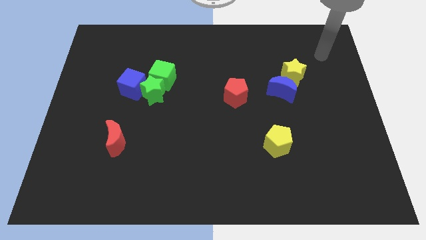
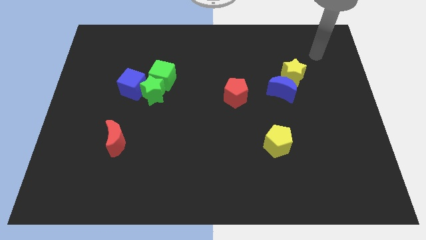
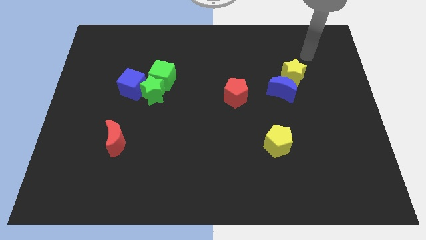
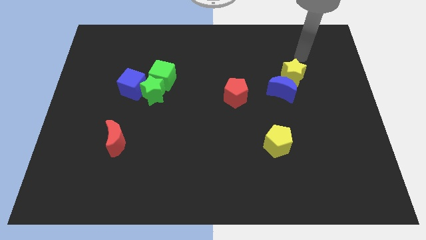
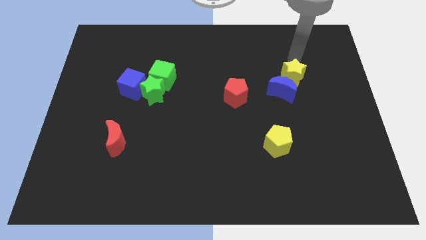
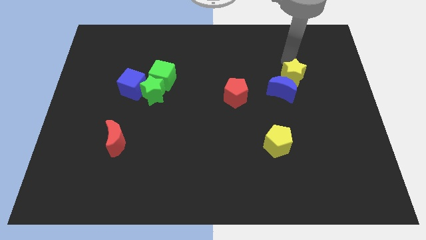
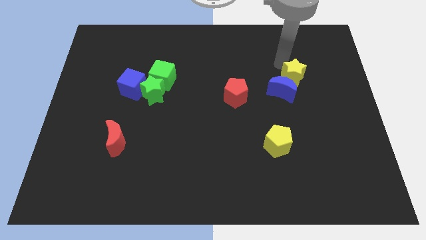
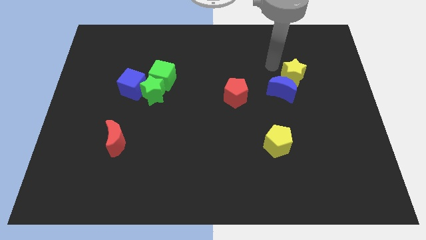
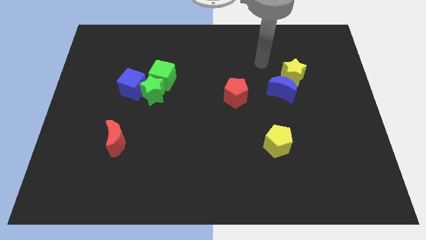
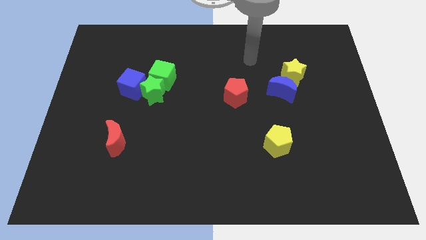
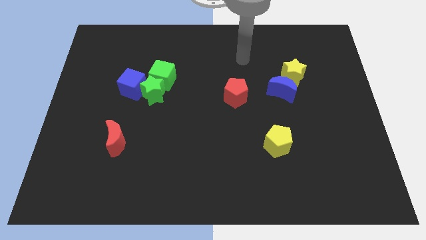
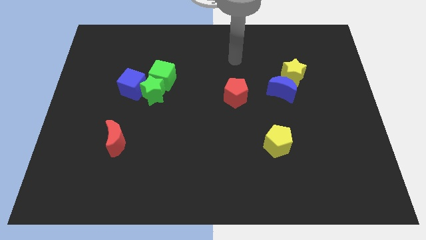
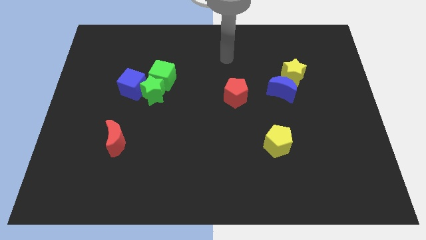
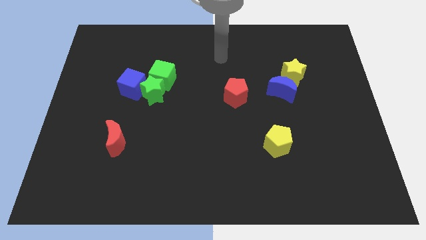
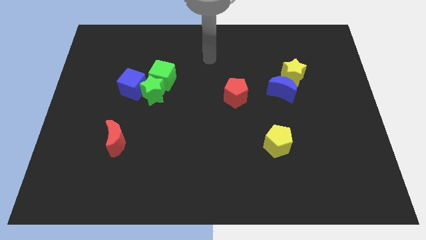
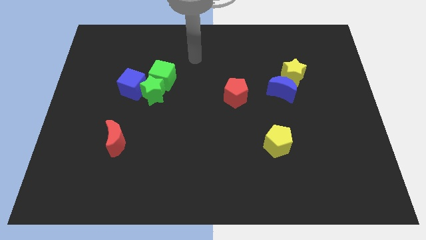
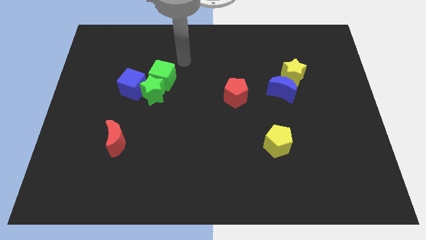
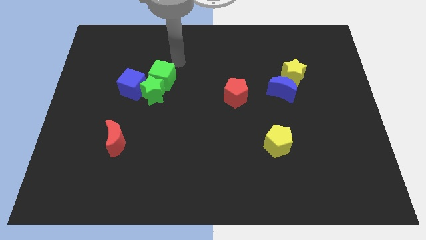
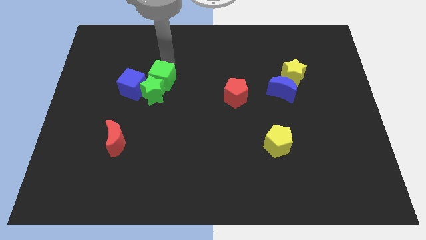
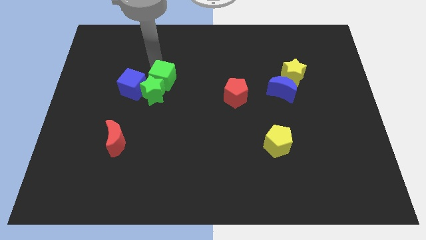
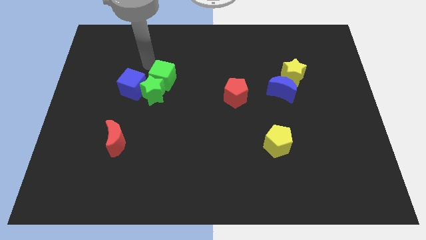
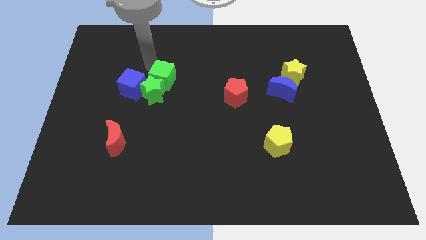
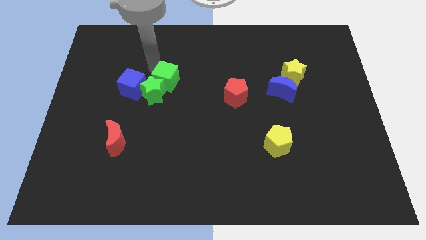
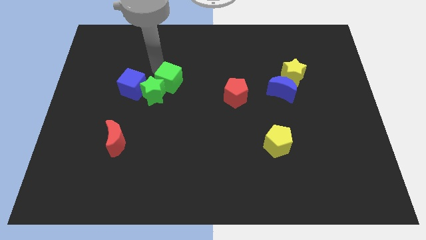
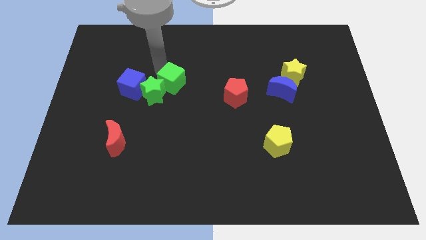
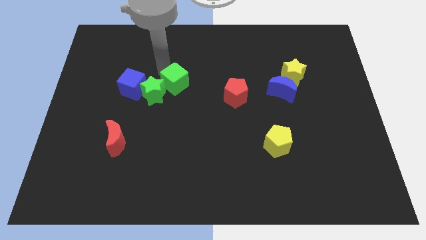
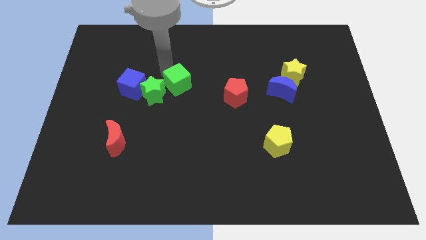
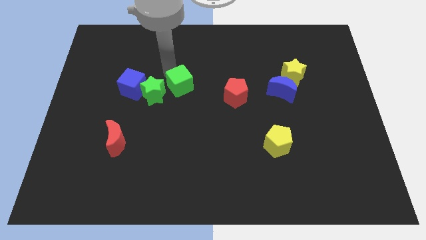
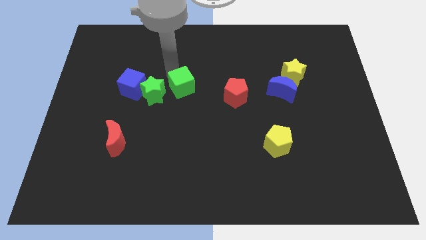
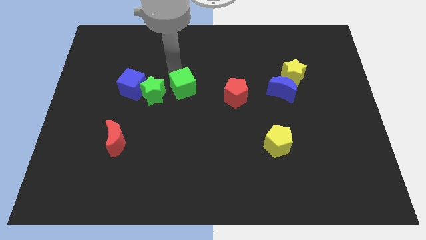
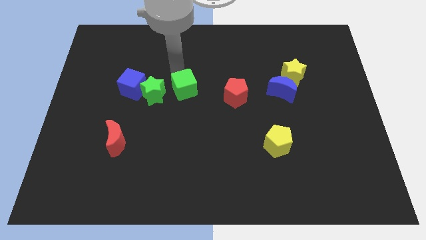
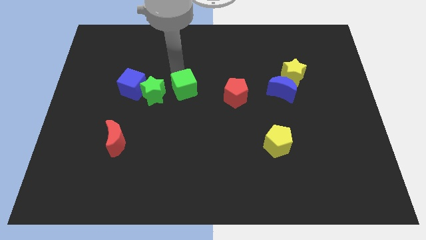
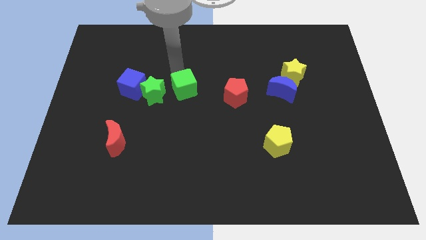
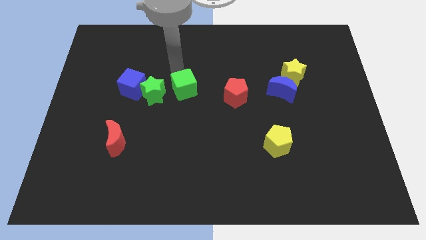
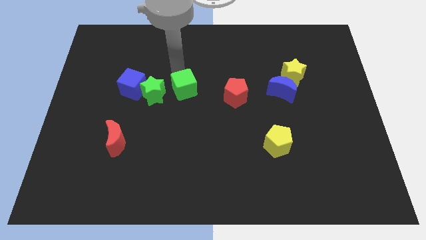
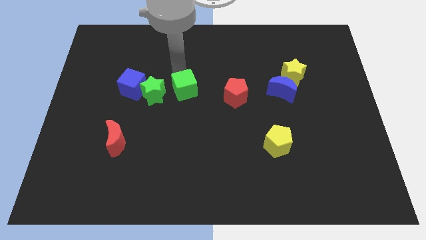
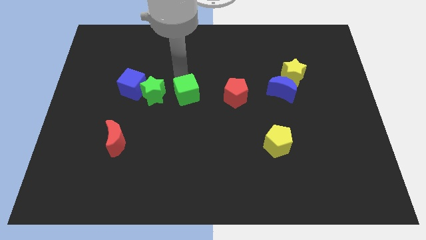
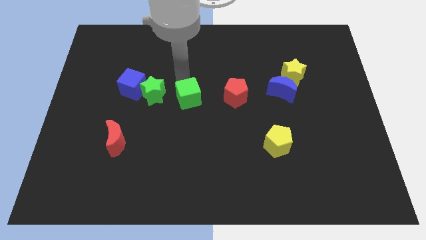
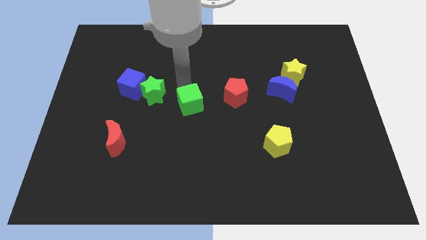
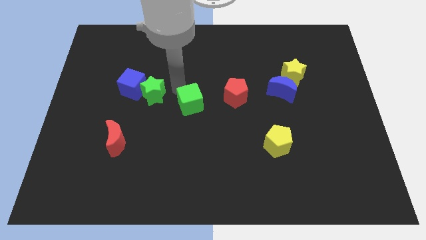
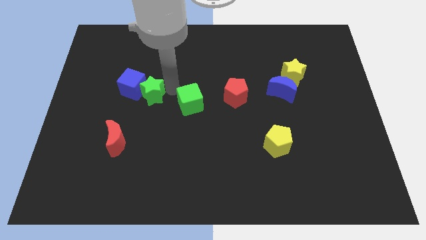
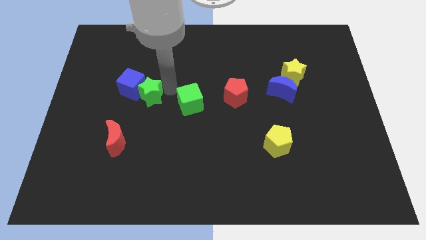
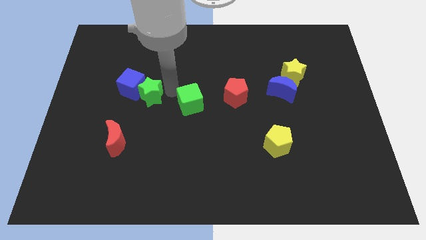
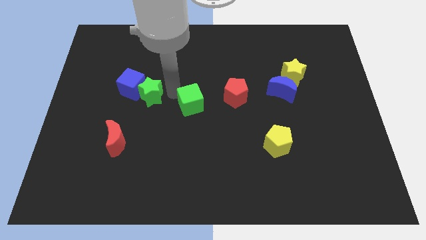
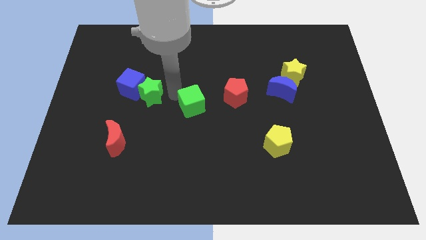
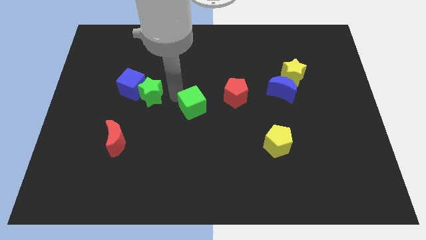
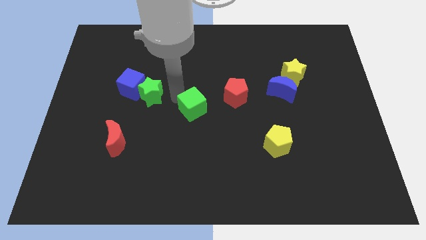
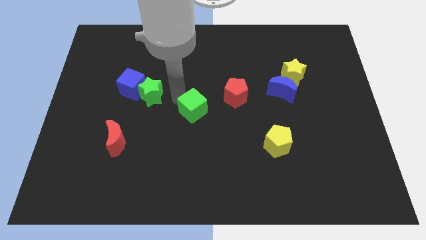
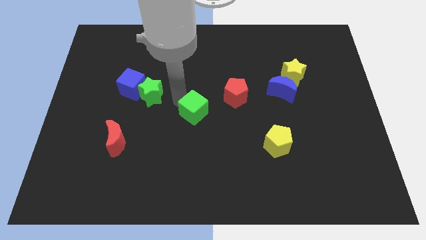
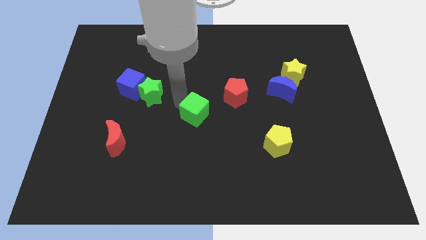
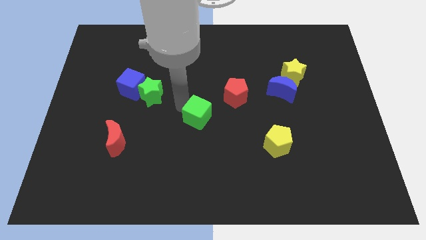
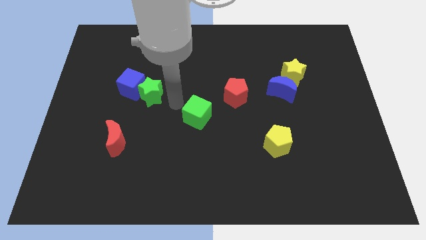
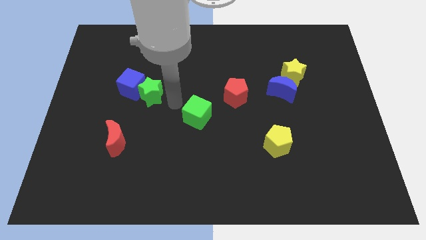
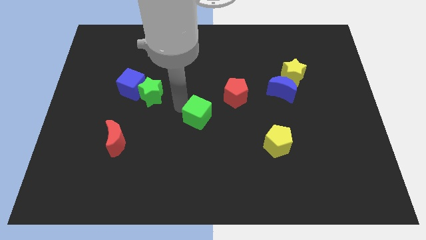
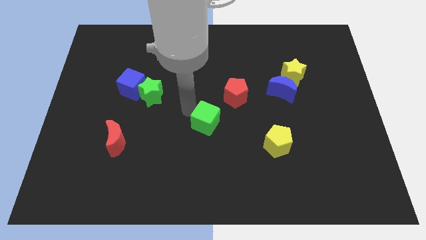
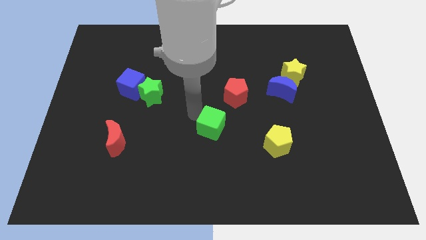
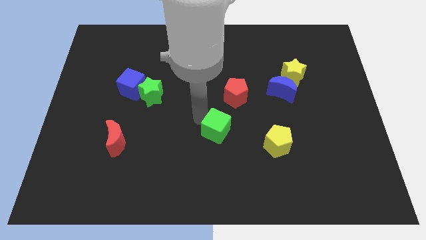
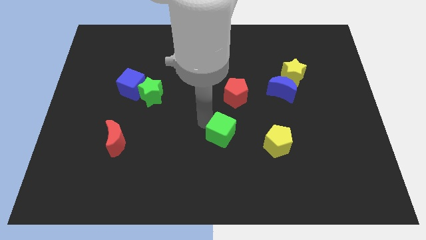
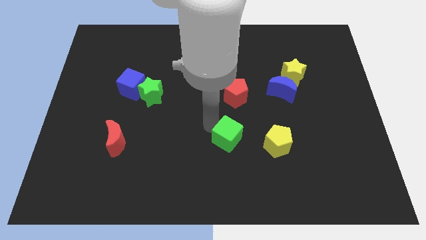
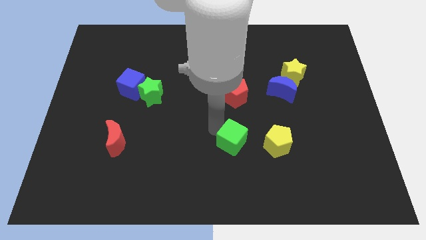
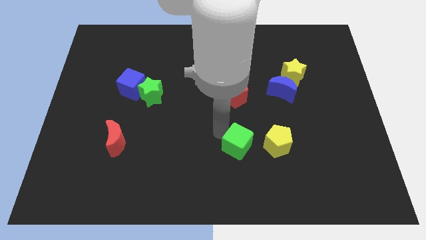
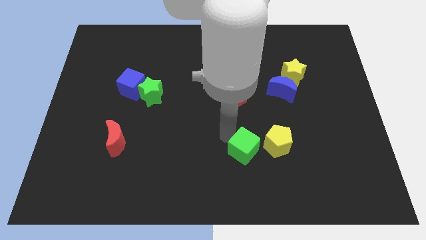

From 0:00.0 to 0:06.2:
put the green cube diagonally down and to the left of the yellow pentagon

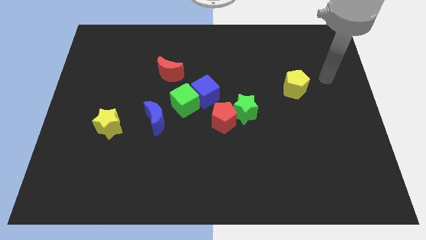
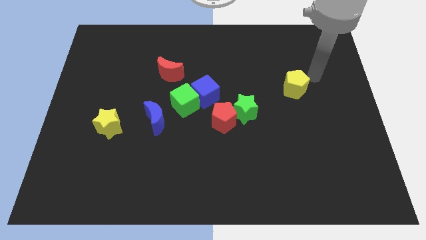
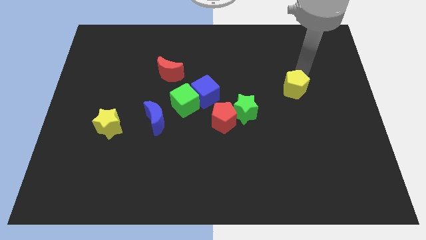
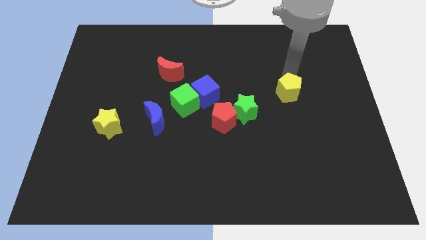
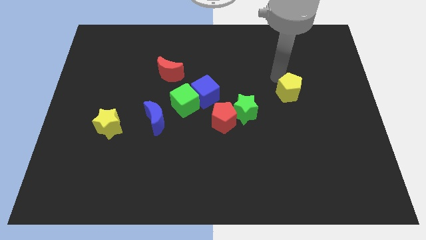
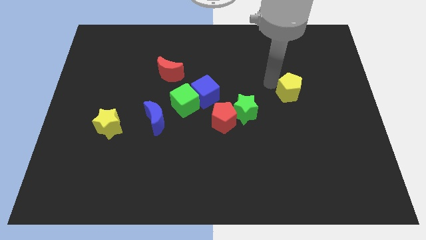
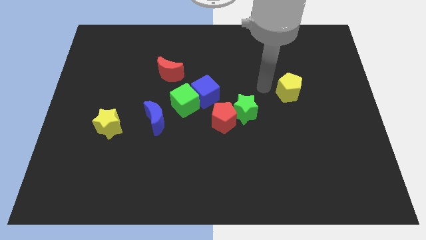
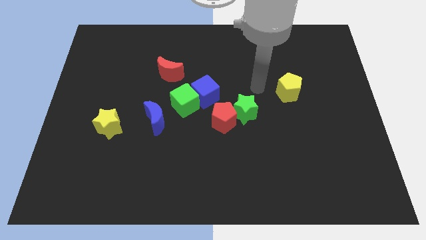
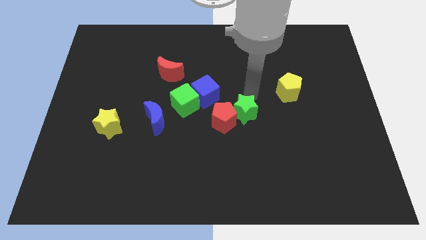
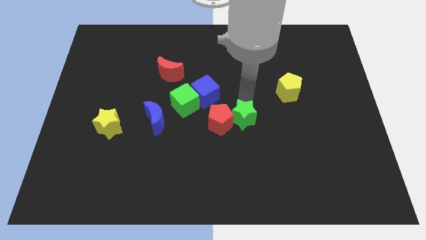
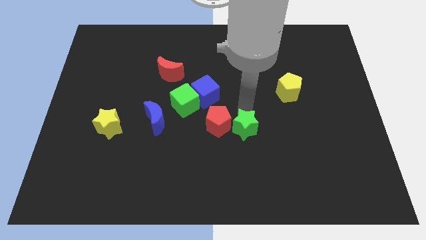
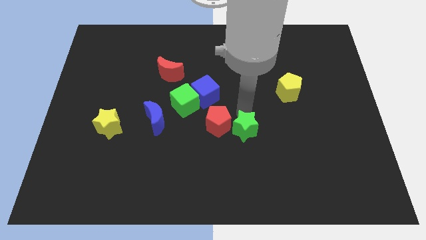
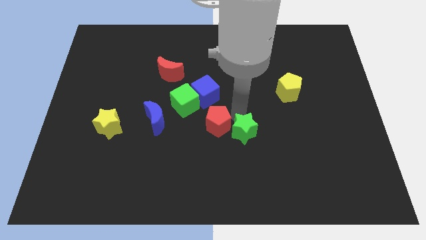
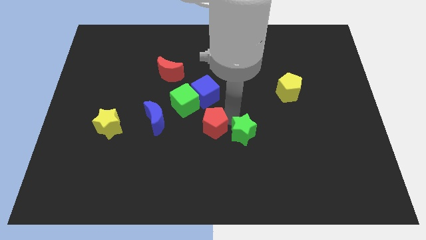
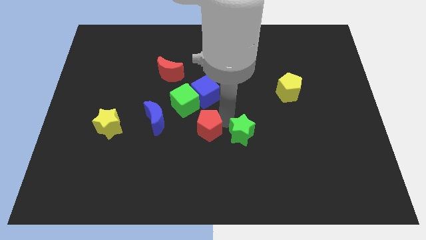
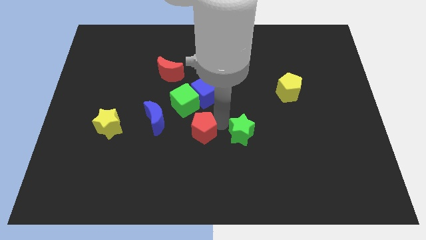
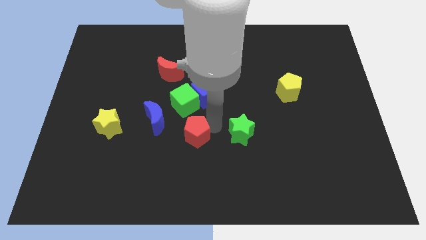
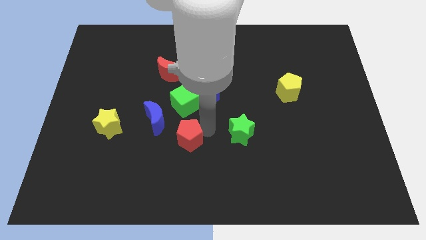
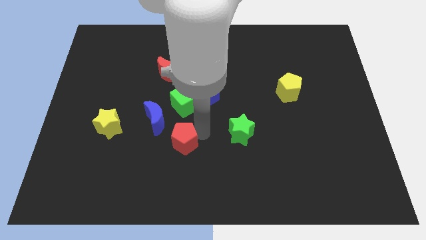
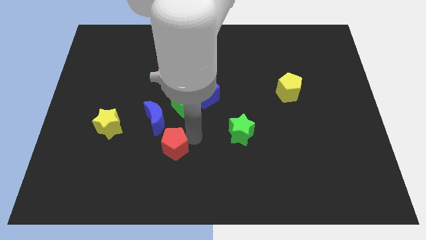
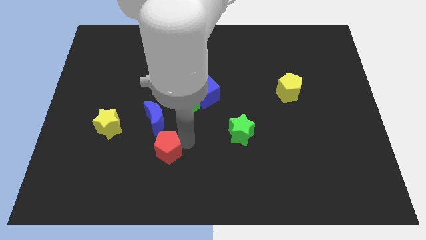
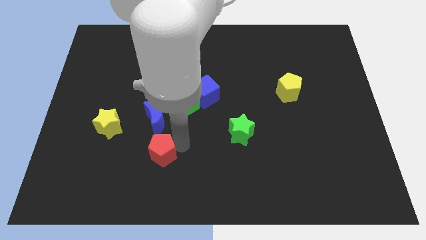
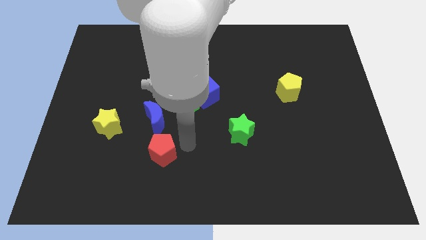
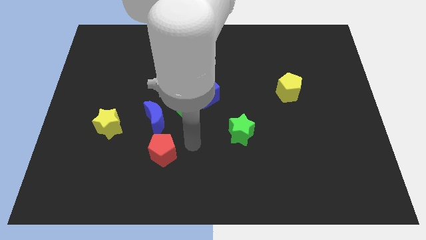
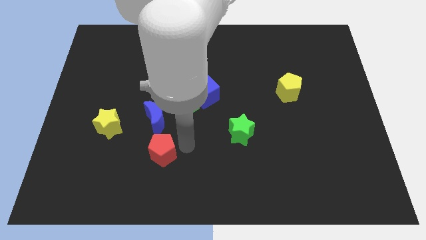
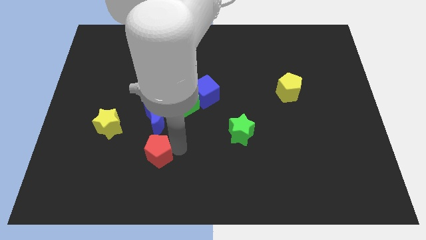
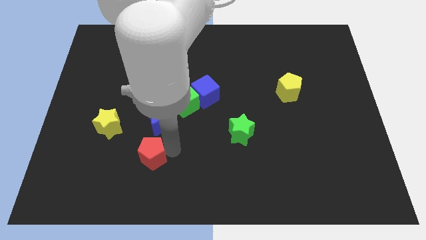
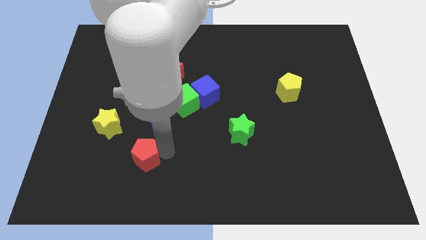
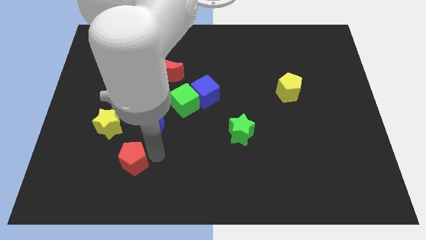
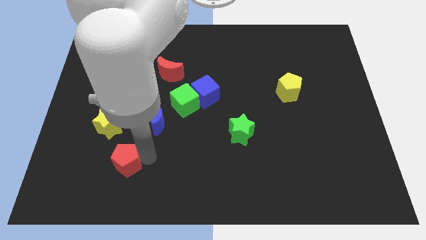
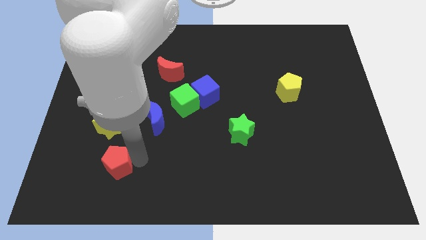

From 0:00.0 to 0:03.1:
slide the red pentagon to the bottom of the yellow star
